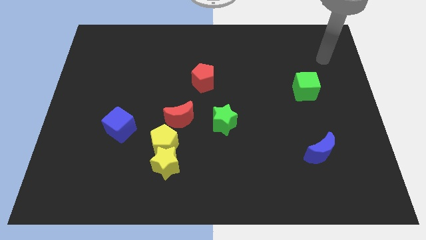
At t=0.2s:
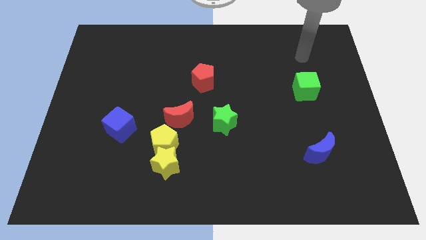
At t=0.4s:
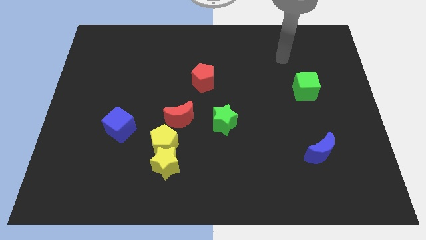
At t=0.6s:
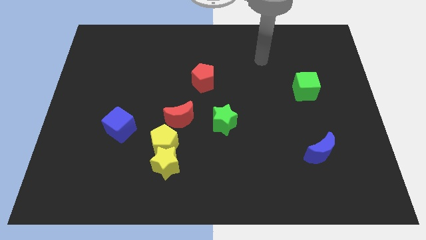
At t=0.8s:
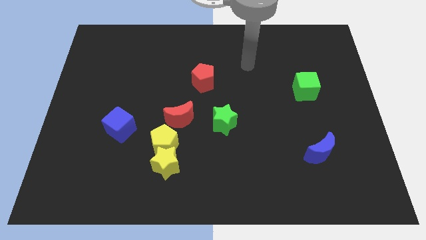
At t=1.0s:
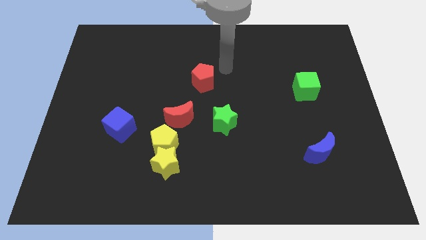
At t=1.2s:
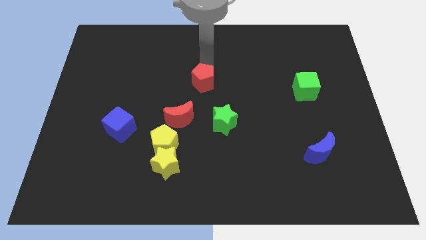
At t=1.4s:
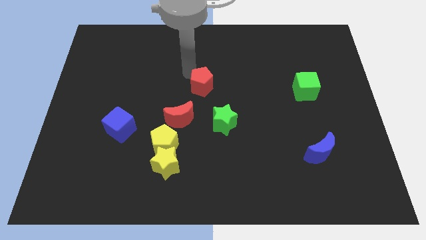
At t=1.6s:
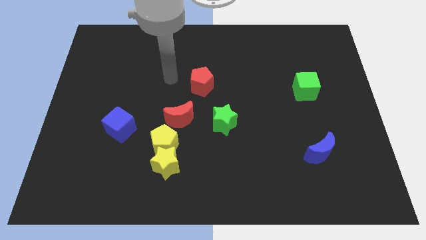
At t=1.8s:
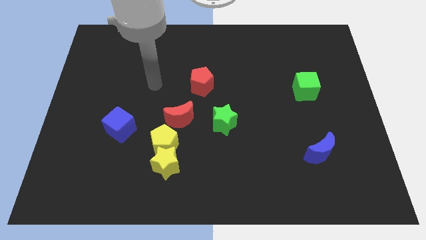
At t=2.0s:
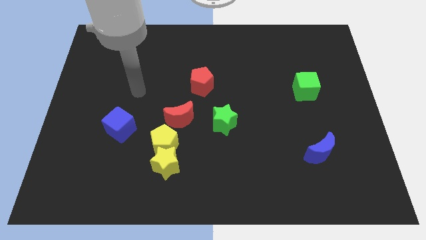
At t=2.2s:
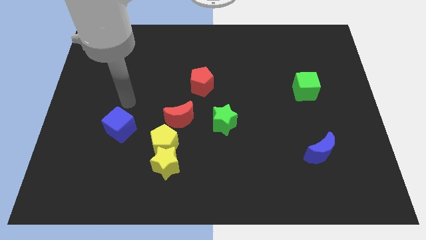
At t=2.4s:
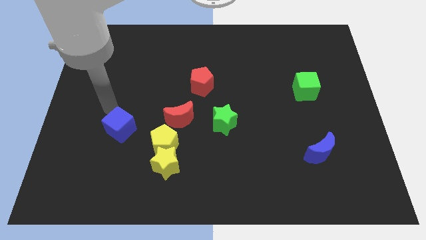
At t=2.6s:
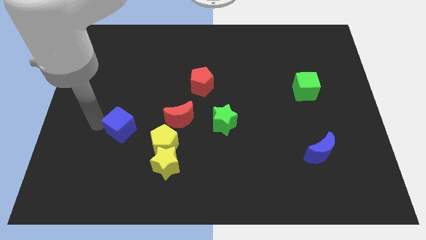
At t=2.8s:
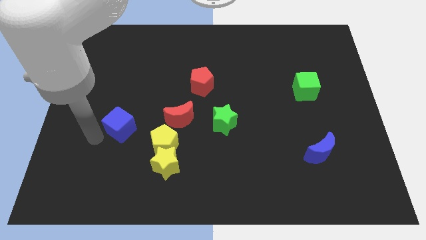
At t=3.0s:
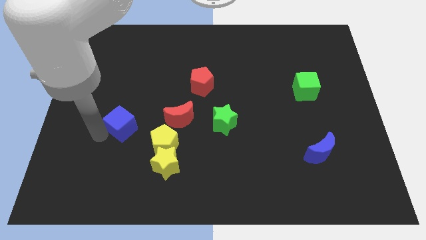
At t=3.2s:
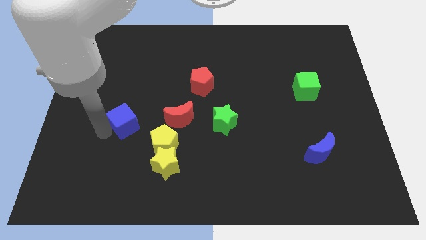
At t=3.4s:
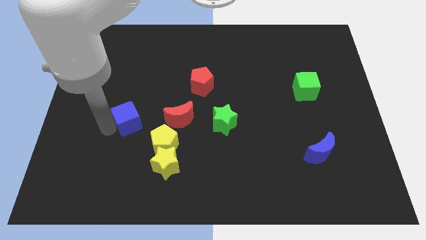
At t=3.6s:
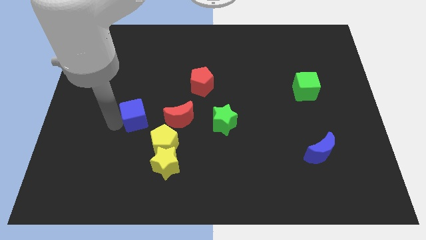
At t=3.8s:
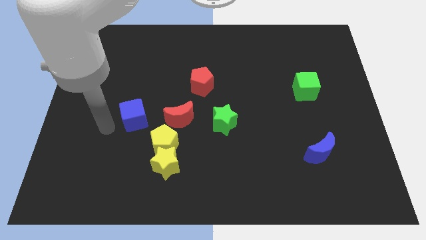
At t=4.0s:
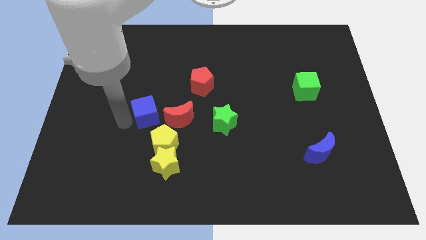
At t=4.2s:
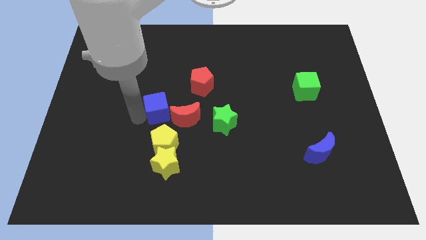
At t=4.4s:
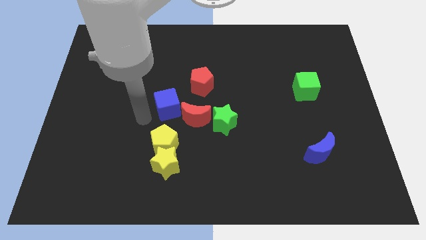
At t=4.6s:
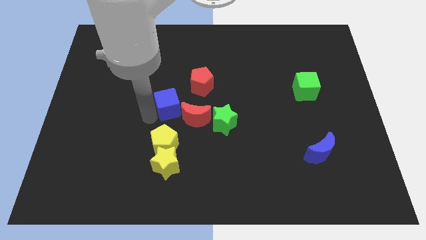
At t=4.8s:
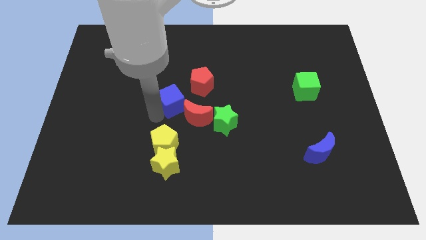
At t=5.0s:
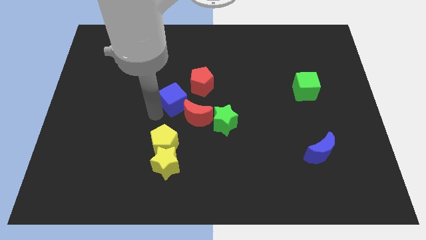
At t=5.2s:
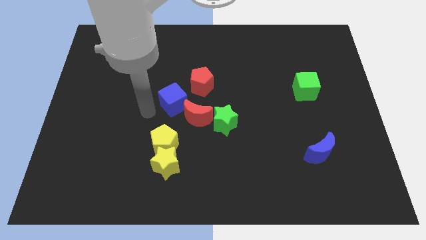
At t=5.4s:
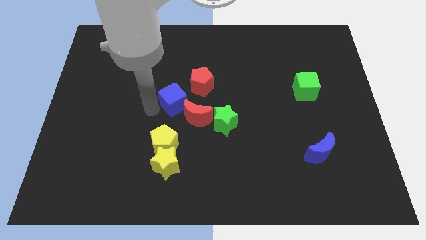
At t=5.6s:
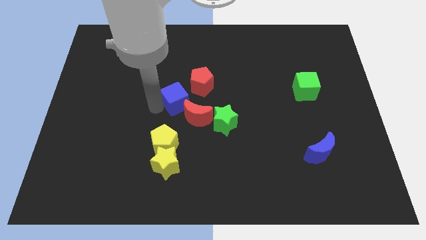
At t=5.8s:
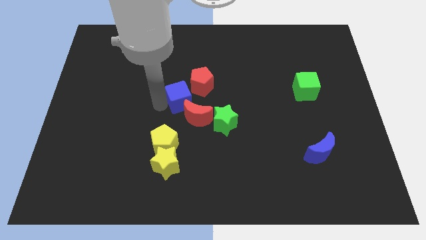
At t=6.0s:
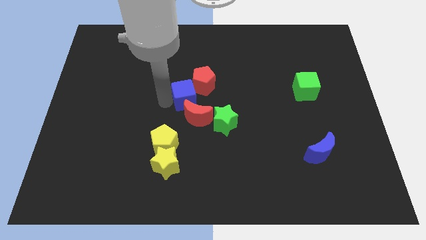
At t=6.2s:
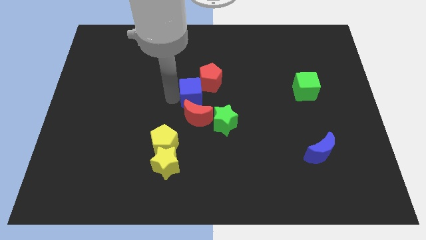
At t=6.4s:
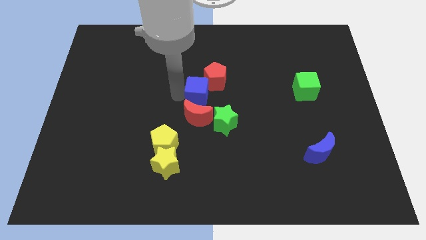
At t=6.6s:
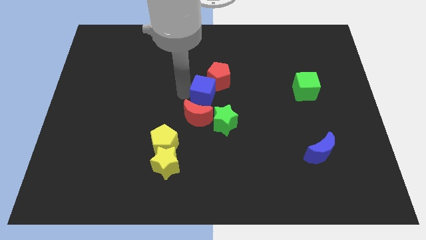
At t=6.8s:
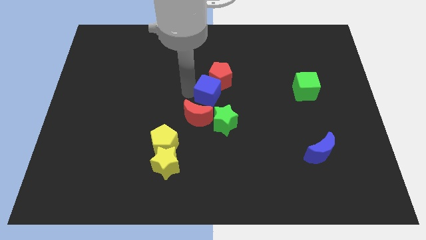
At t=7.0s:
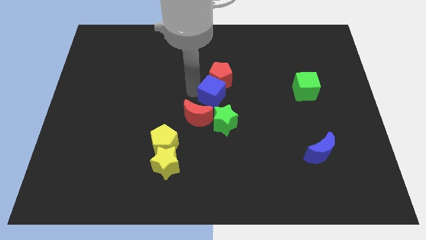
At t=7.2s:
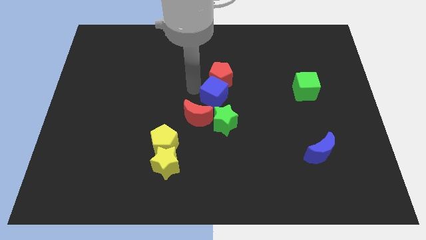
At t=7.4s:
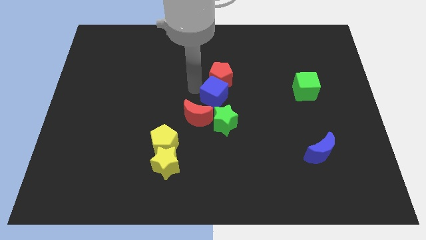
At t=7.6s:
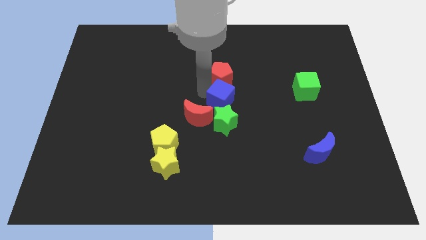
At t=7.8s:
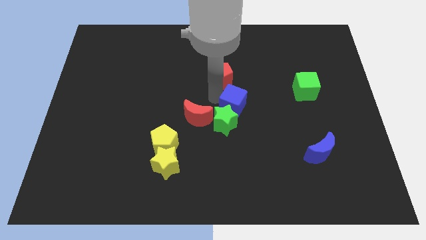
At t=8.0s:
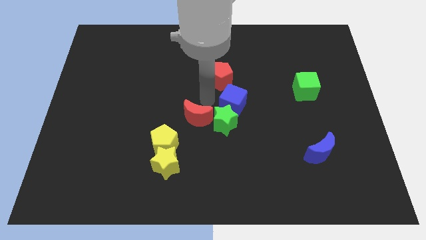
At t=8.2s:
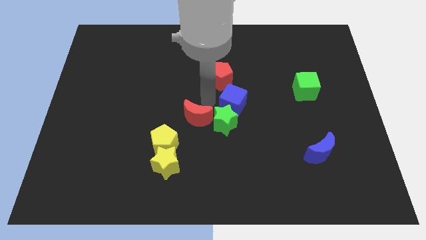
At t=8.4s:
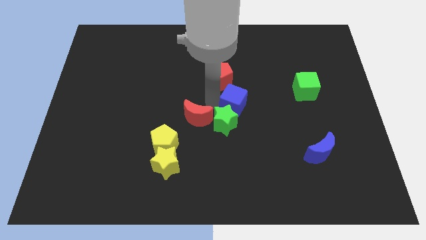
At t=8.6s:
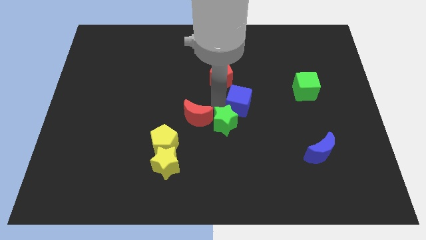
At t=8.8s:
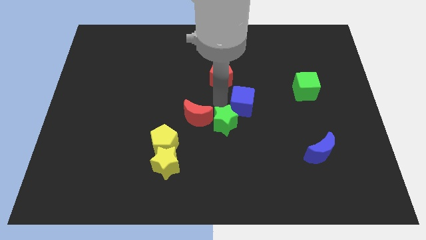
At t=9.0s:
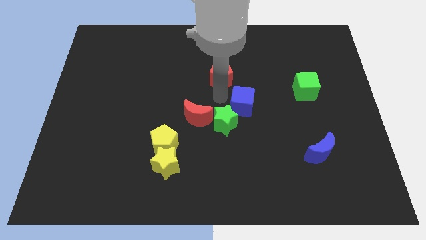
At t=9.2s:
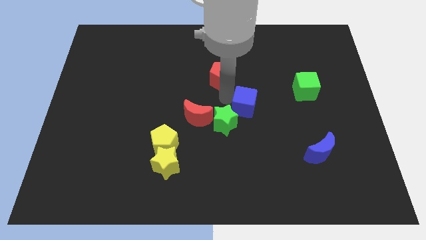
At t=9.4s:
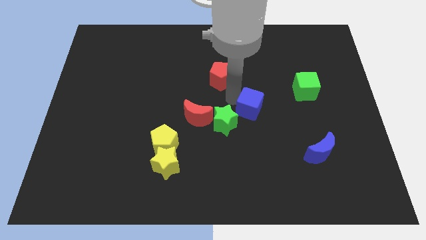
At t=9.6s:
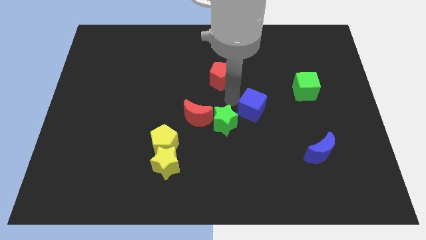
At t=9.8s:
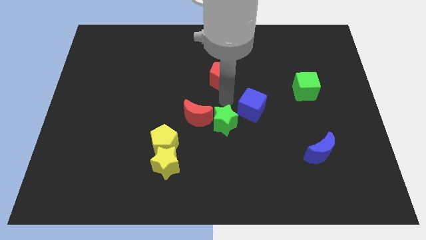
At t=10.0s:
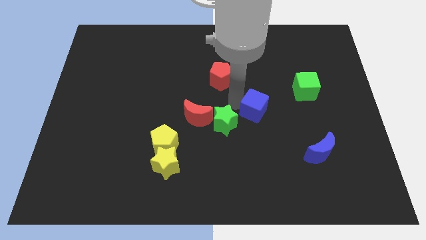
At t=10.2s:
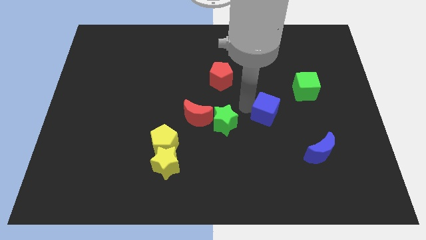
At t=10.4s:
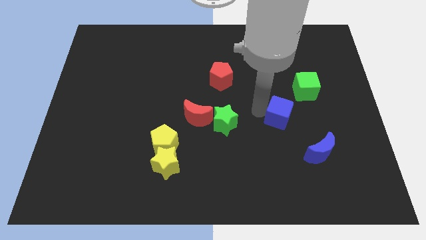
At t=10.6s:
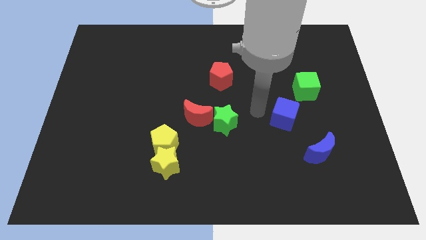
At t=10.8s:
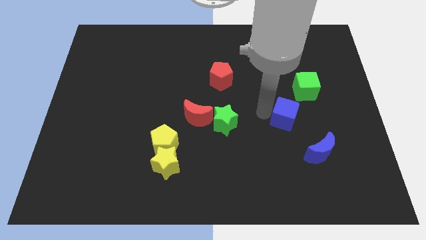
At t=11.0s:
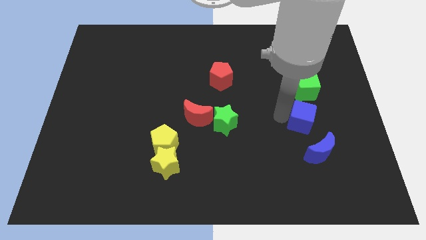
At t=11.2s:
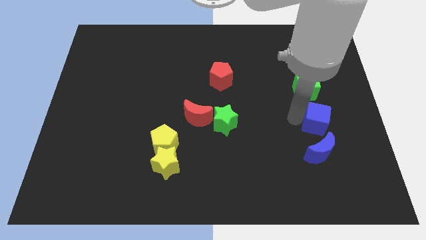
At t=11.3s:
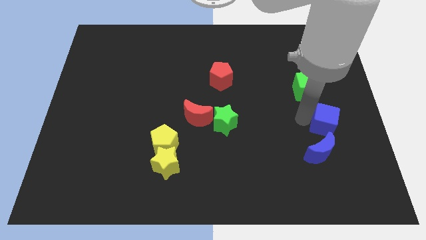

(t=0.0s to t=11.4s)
put the blue cube diagonally up and to the right of the blue moon

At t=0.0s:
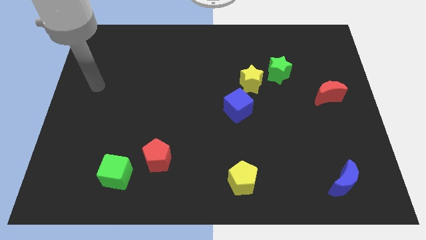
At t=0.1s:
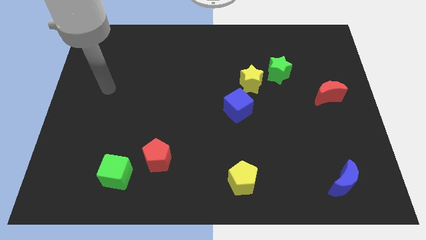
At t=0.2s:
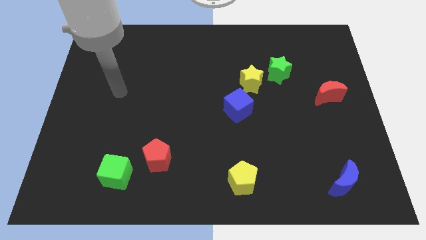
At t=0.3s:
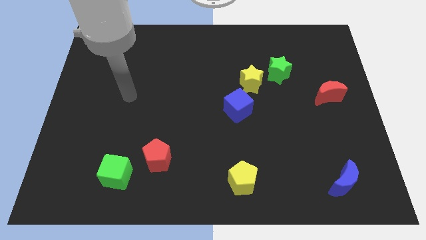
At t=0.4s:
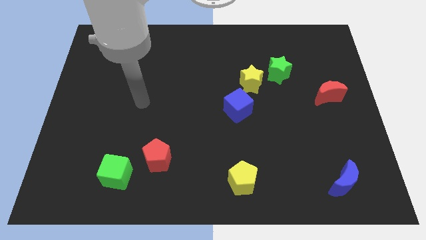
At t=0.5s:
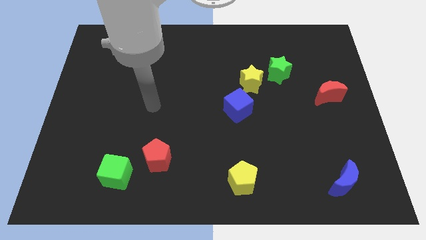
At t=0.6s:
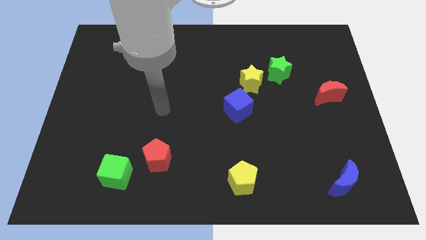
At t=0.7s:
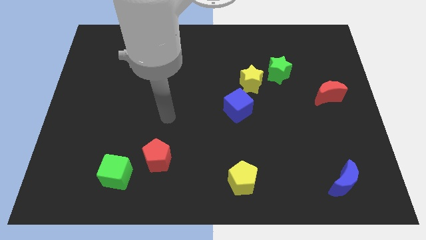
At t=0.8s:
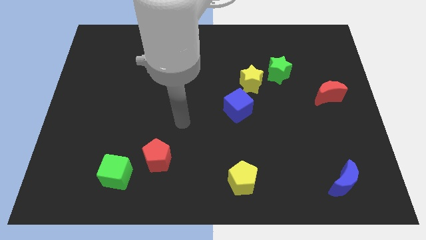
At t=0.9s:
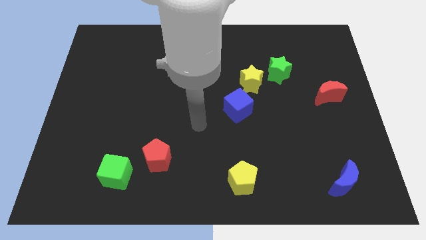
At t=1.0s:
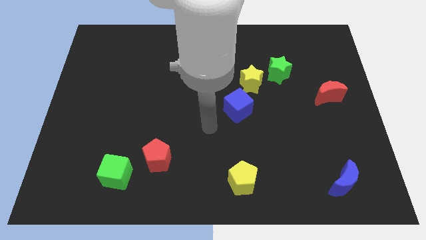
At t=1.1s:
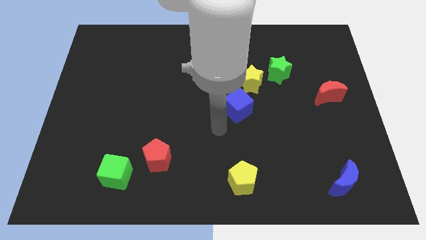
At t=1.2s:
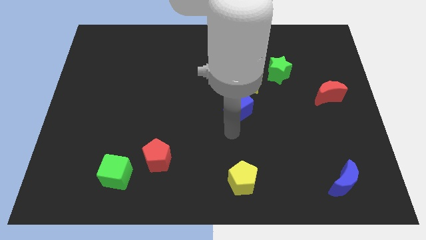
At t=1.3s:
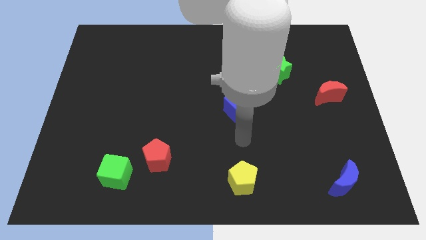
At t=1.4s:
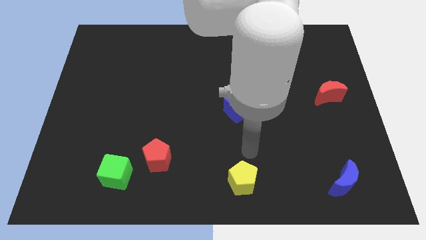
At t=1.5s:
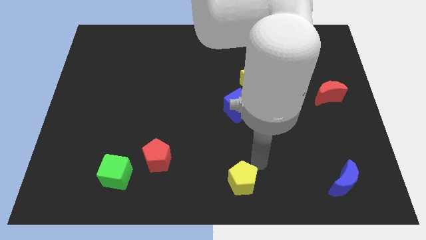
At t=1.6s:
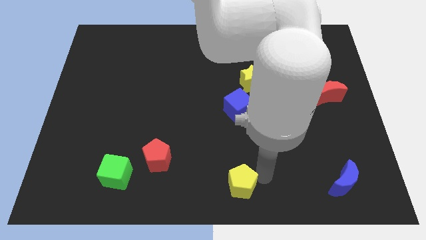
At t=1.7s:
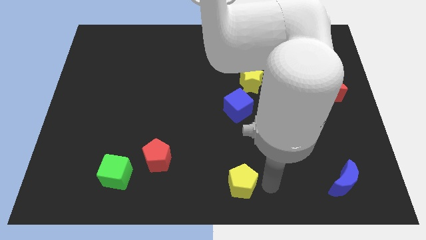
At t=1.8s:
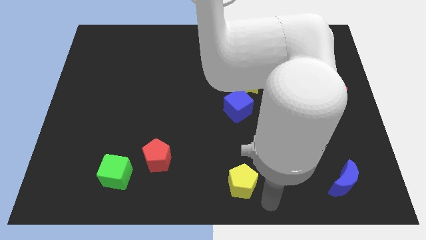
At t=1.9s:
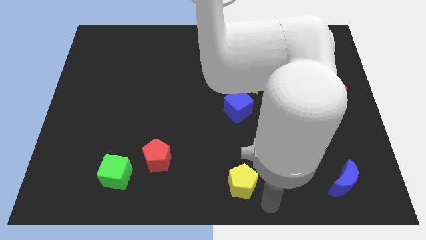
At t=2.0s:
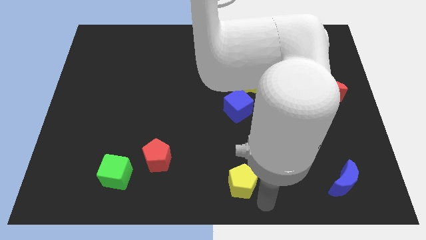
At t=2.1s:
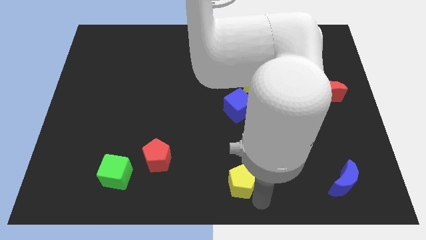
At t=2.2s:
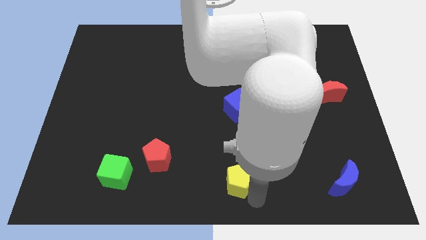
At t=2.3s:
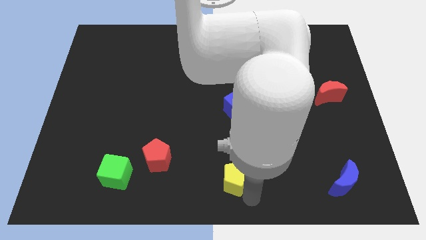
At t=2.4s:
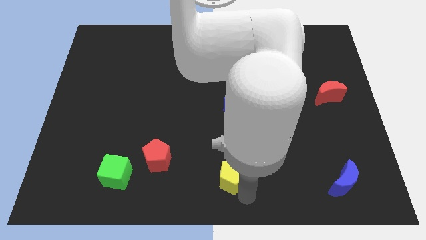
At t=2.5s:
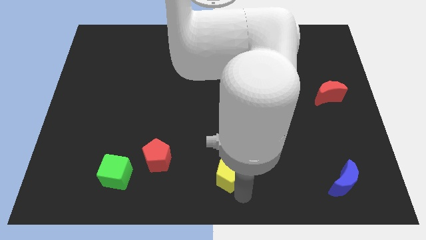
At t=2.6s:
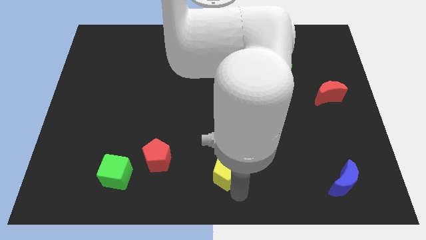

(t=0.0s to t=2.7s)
slide the yellow pentagon right of the red pentagon
